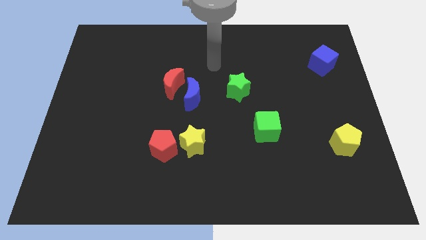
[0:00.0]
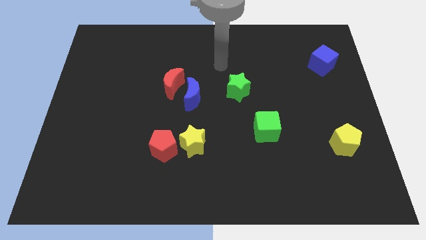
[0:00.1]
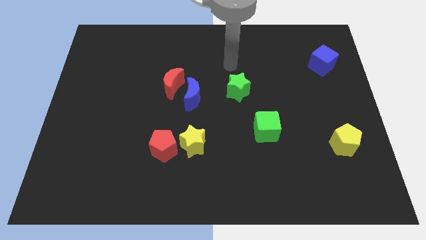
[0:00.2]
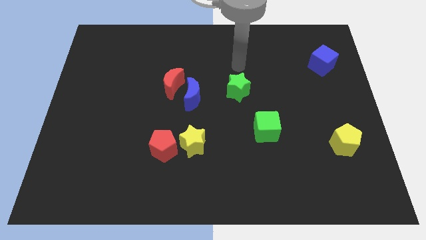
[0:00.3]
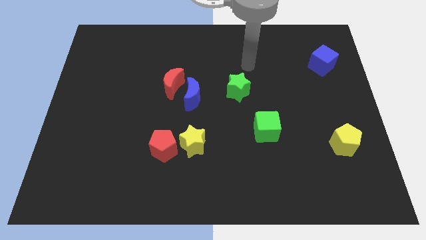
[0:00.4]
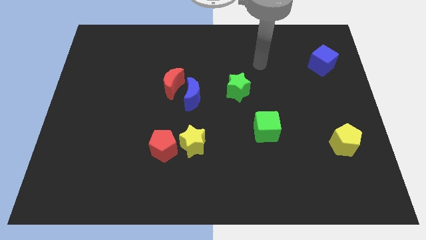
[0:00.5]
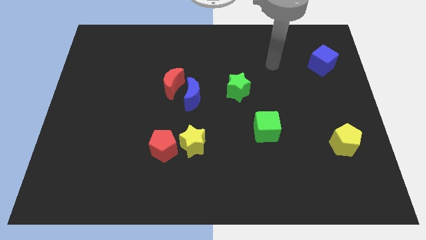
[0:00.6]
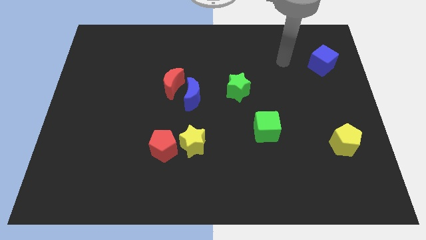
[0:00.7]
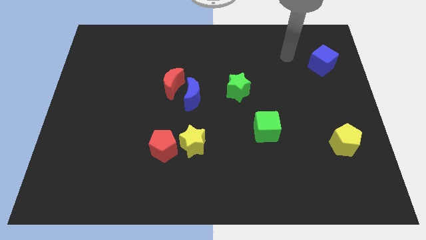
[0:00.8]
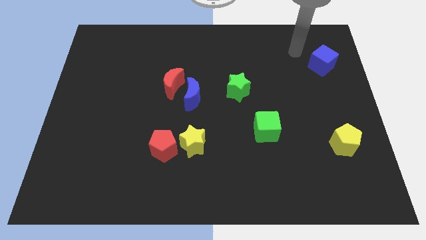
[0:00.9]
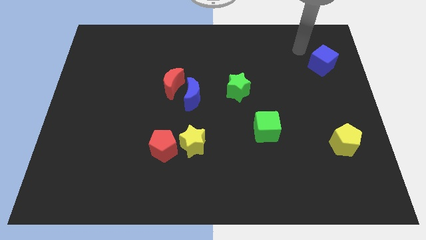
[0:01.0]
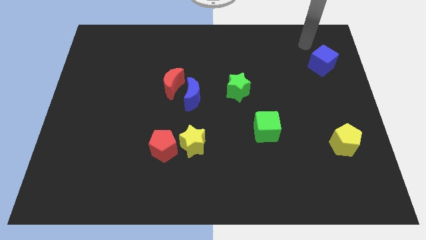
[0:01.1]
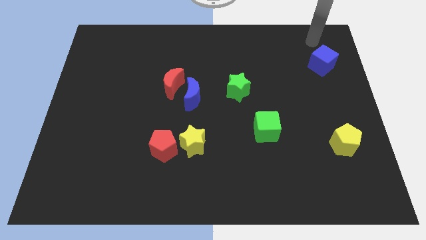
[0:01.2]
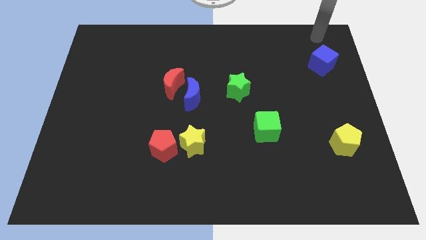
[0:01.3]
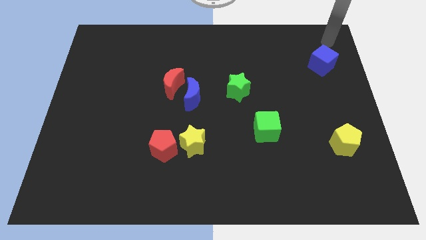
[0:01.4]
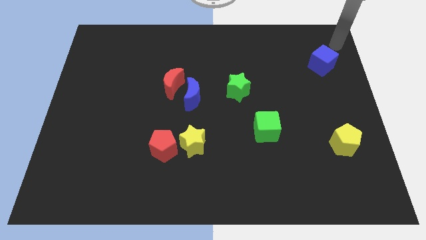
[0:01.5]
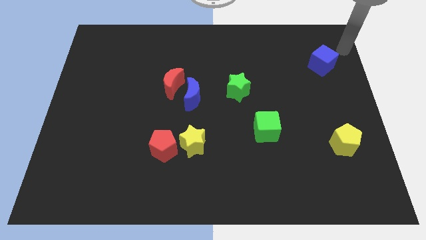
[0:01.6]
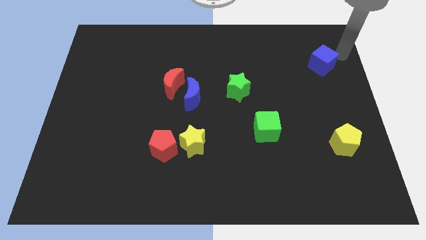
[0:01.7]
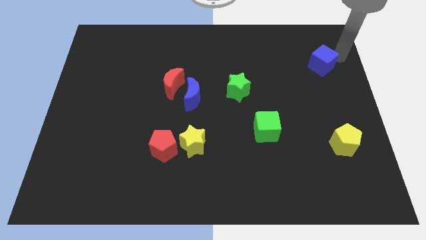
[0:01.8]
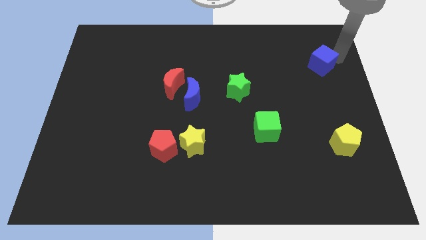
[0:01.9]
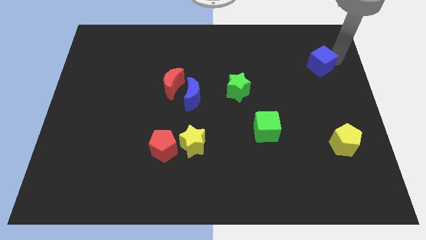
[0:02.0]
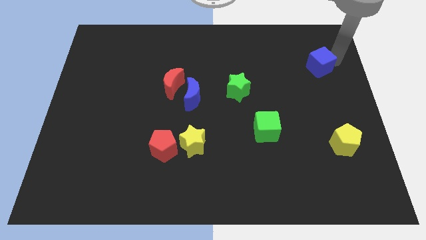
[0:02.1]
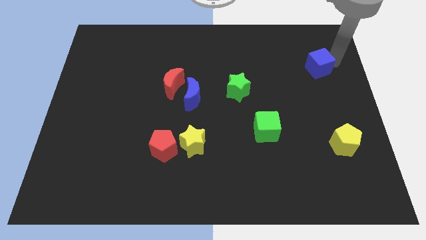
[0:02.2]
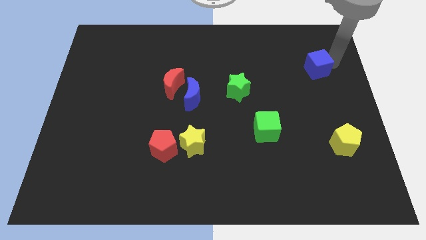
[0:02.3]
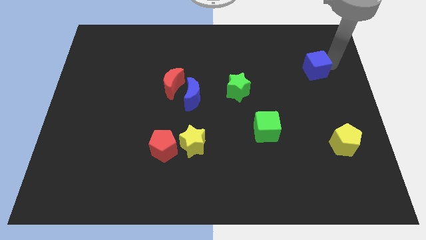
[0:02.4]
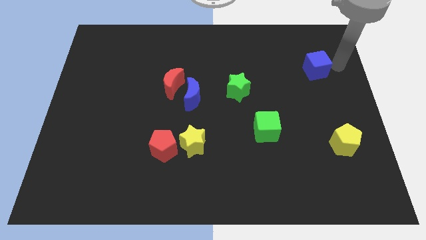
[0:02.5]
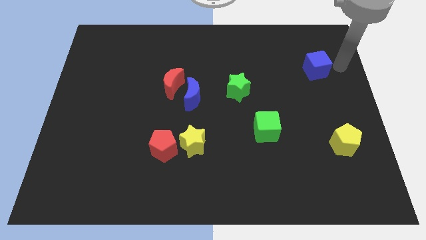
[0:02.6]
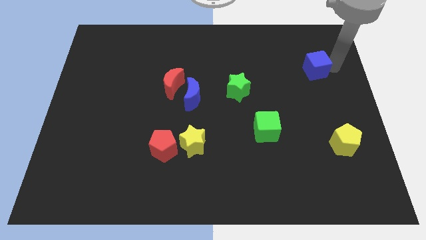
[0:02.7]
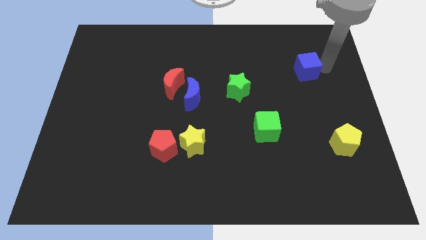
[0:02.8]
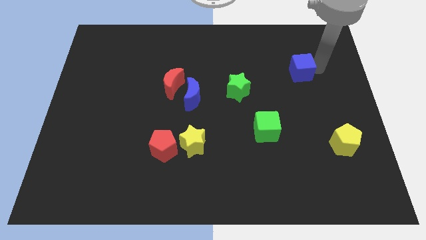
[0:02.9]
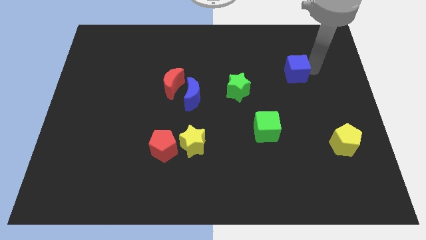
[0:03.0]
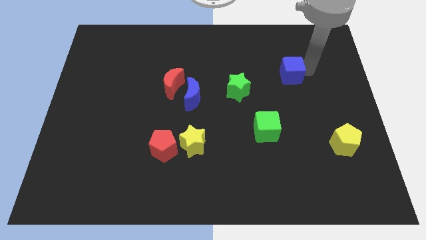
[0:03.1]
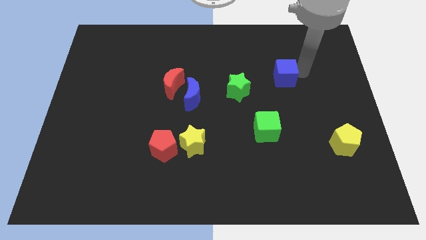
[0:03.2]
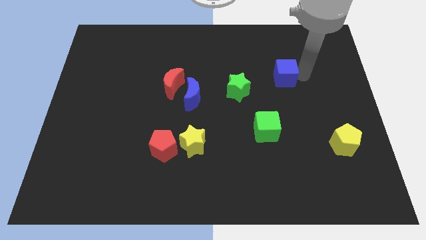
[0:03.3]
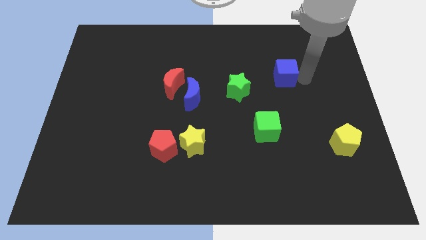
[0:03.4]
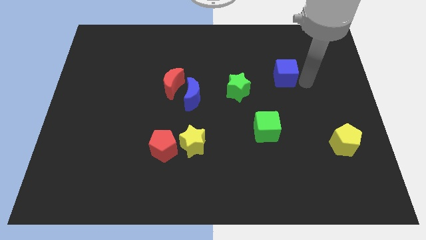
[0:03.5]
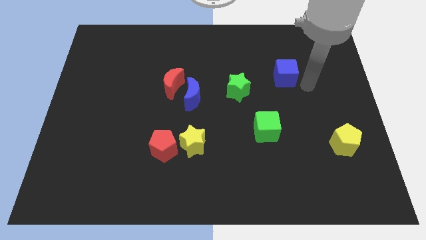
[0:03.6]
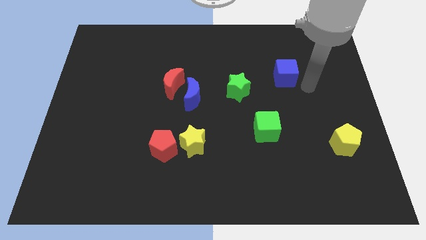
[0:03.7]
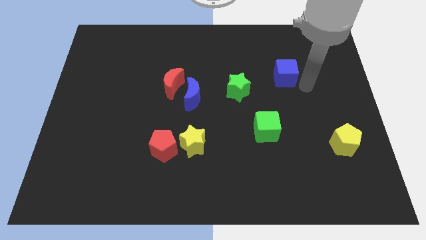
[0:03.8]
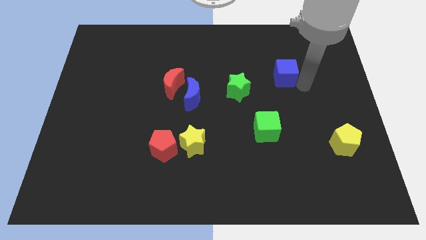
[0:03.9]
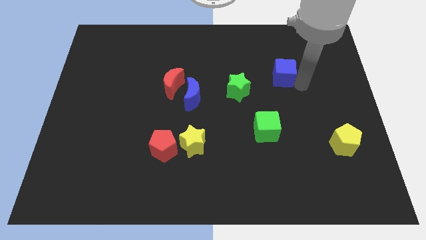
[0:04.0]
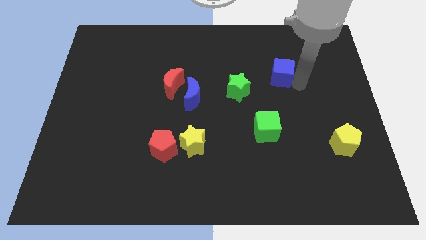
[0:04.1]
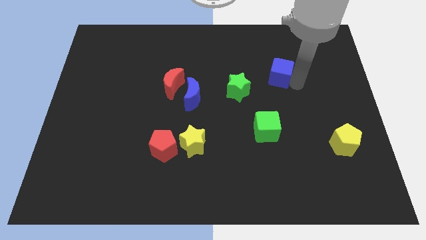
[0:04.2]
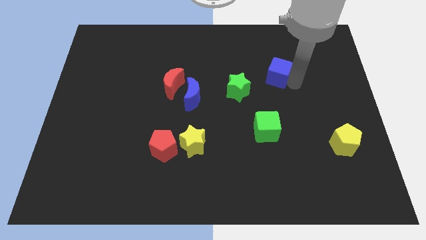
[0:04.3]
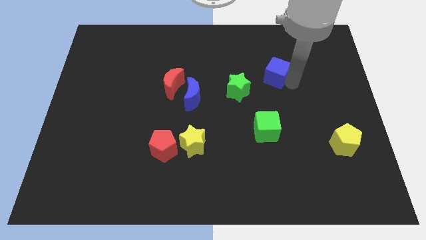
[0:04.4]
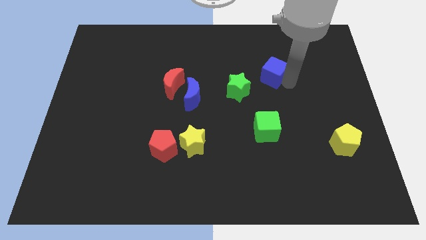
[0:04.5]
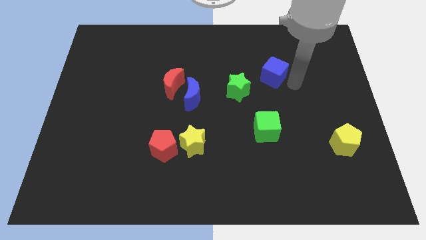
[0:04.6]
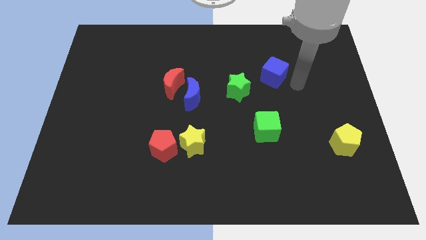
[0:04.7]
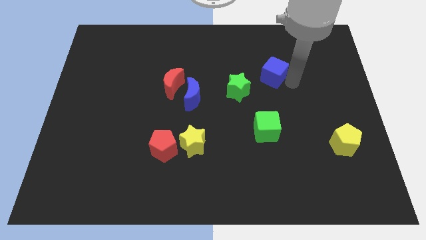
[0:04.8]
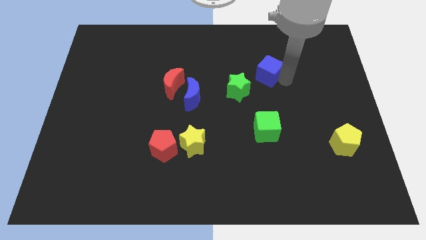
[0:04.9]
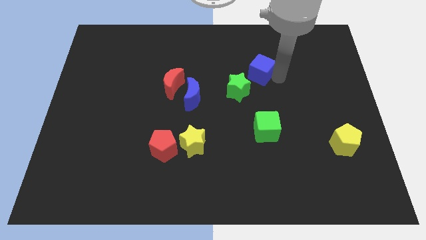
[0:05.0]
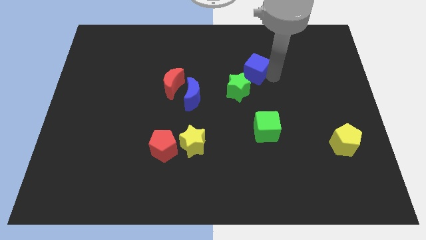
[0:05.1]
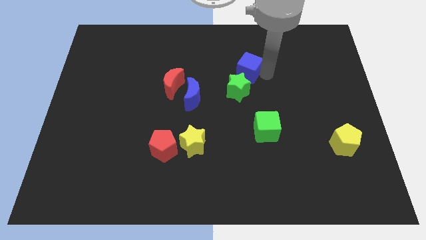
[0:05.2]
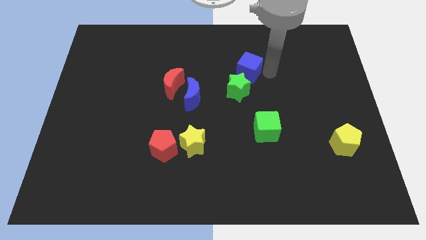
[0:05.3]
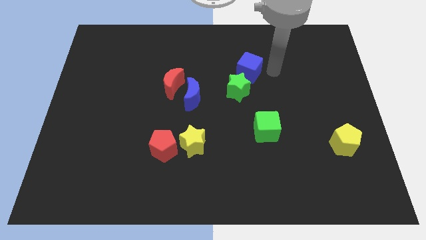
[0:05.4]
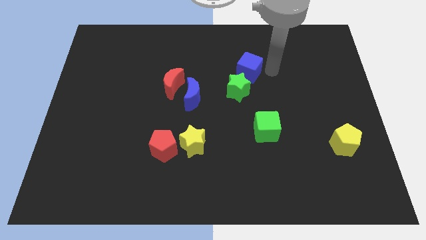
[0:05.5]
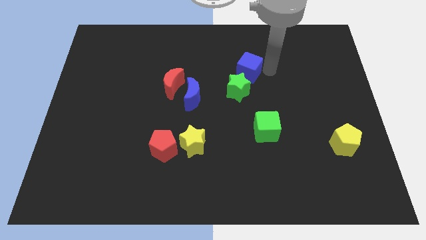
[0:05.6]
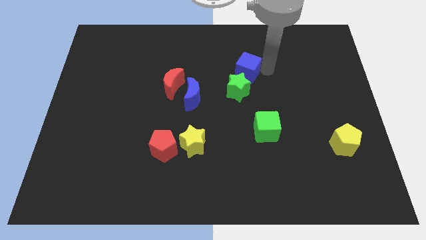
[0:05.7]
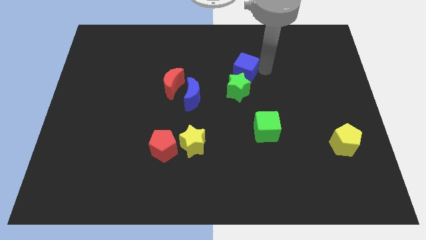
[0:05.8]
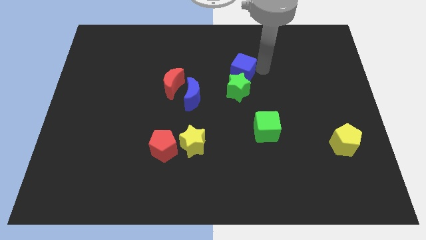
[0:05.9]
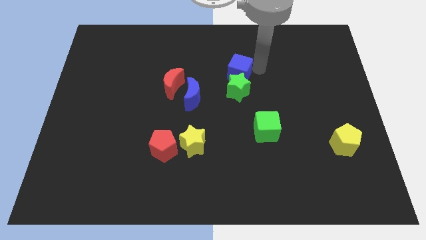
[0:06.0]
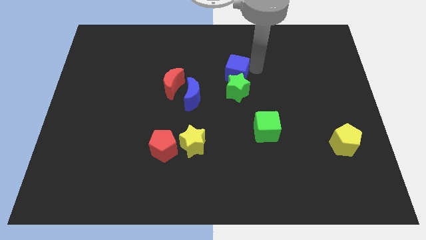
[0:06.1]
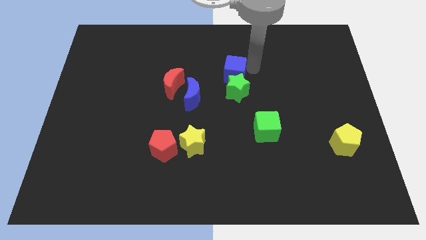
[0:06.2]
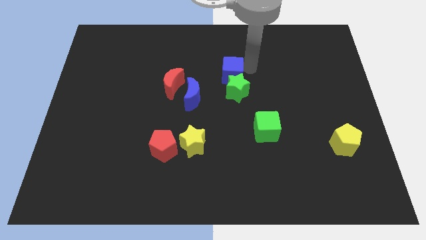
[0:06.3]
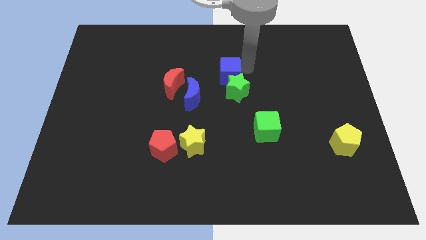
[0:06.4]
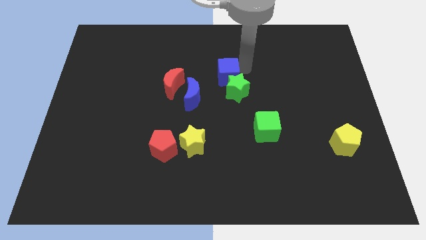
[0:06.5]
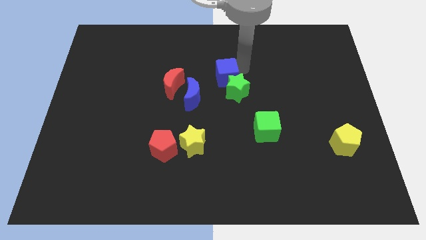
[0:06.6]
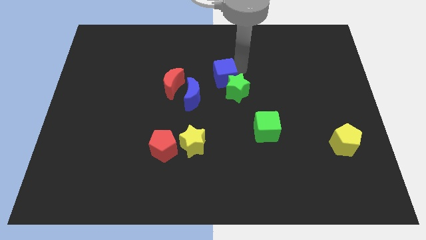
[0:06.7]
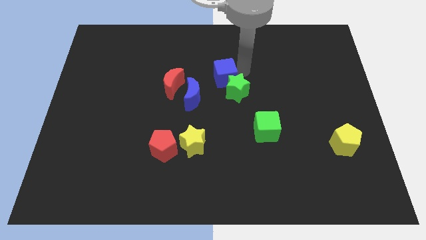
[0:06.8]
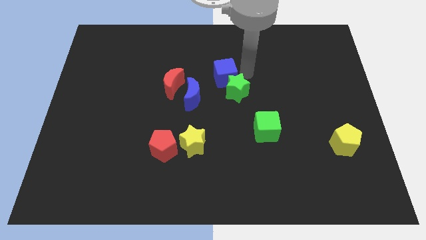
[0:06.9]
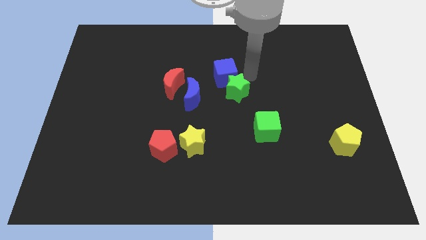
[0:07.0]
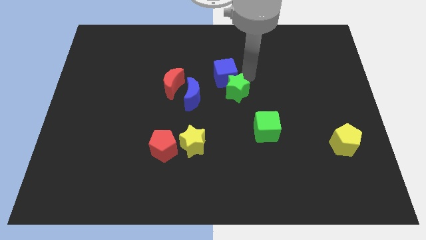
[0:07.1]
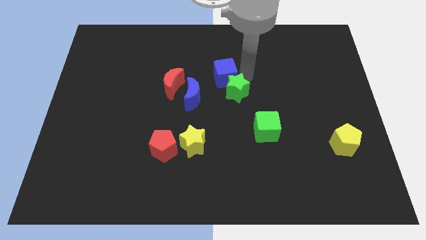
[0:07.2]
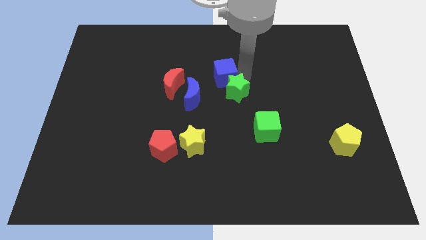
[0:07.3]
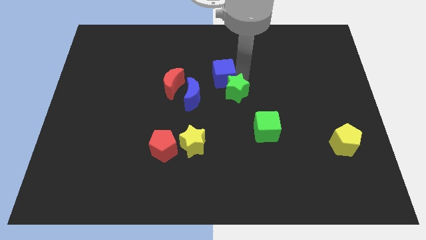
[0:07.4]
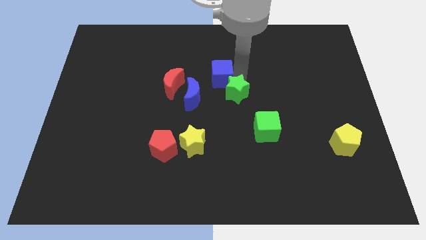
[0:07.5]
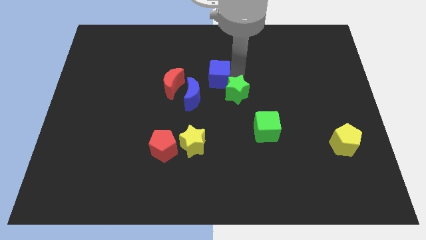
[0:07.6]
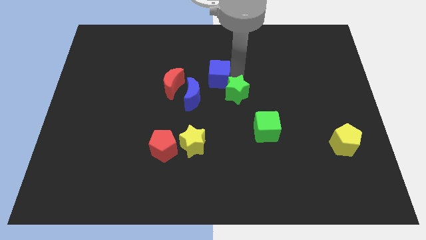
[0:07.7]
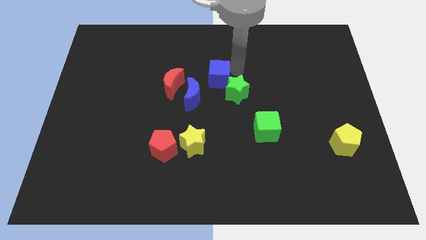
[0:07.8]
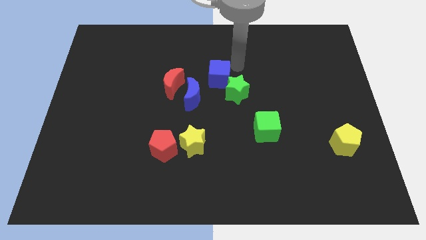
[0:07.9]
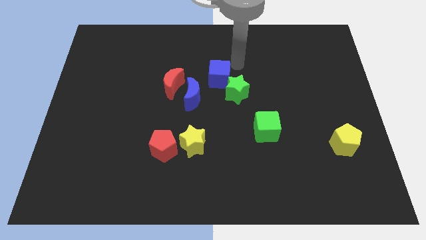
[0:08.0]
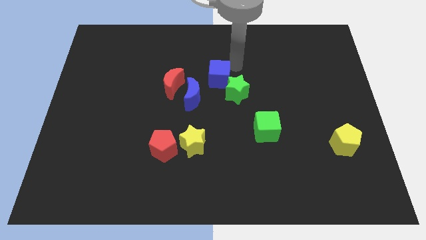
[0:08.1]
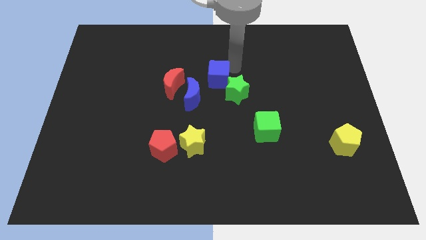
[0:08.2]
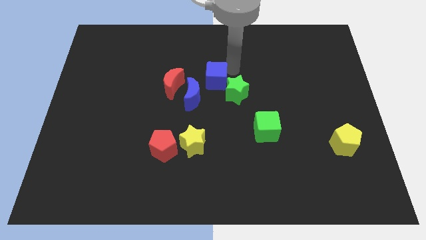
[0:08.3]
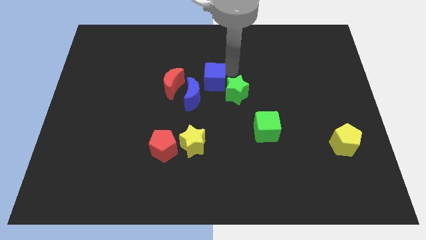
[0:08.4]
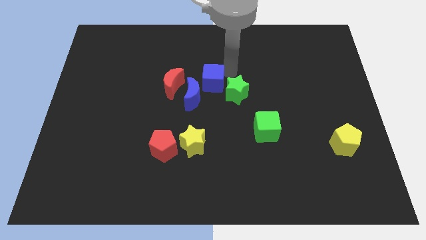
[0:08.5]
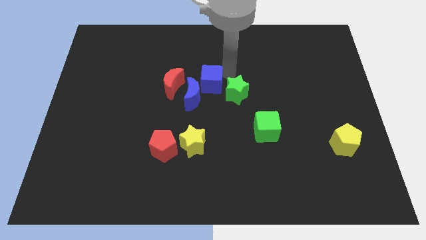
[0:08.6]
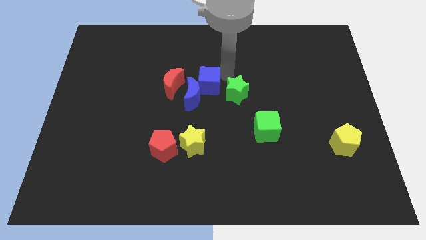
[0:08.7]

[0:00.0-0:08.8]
put the blue cube close to the blue moon
